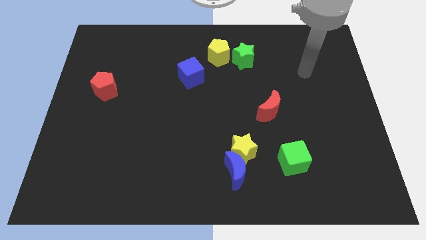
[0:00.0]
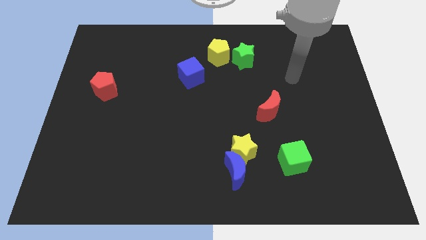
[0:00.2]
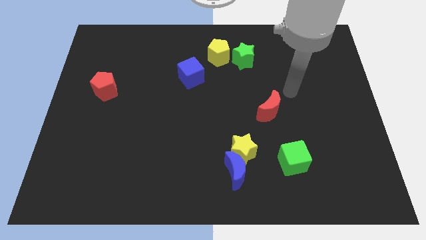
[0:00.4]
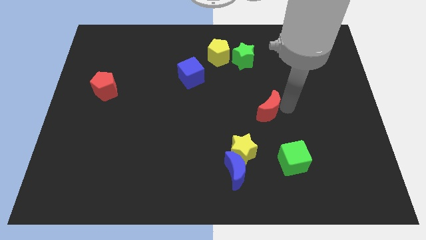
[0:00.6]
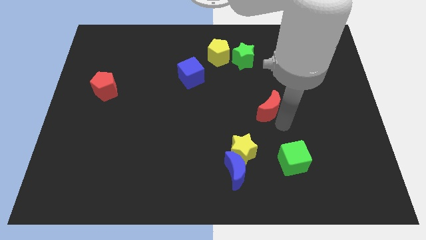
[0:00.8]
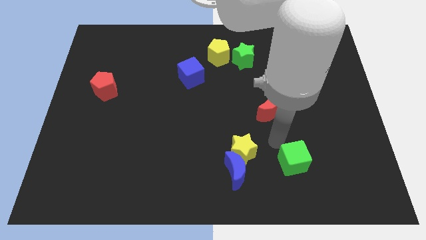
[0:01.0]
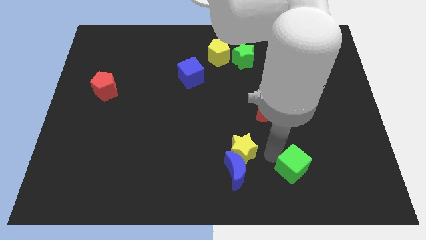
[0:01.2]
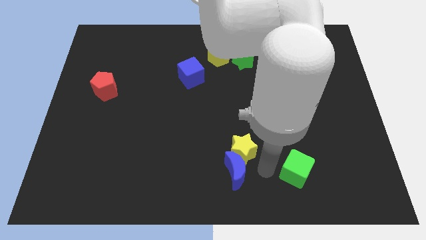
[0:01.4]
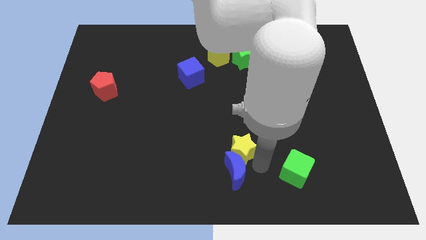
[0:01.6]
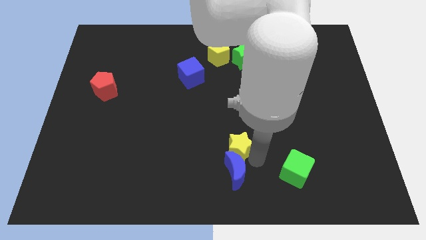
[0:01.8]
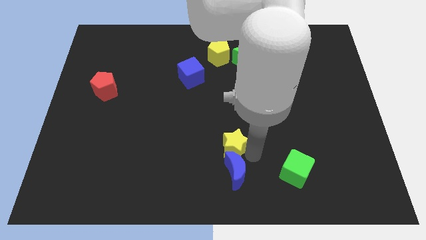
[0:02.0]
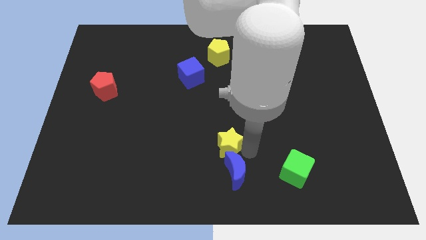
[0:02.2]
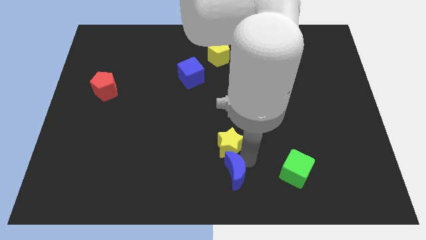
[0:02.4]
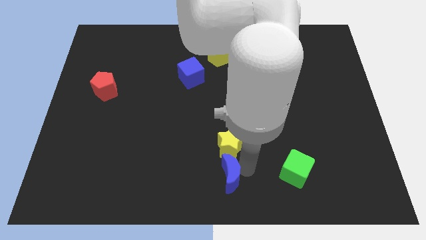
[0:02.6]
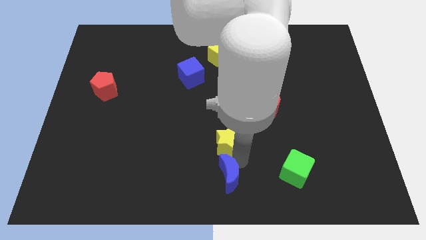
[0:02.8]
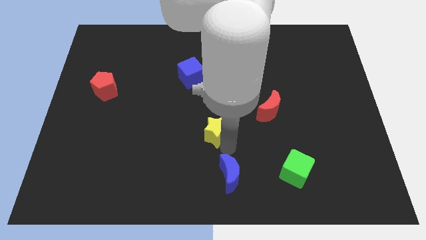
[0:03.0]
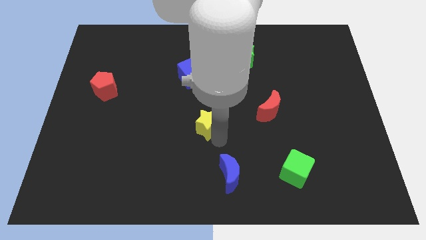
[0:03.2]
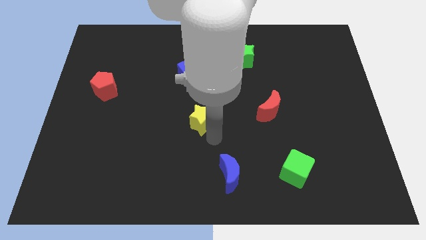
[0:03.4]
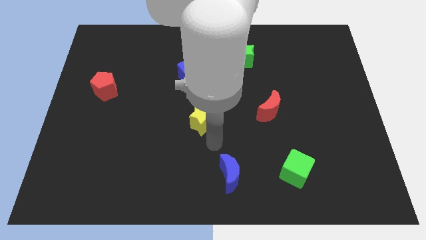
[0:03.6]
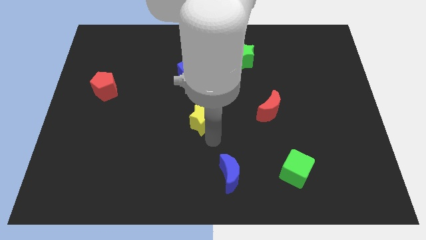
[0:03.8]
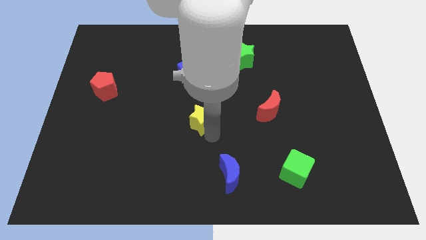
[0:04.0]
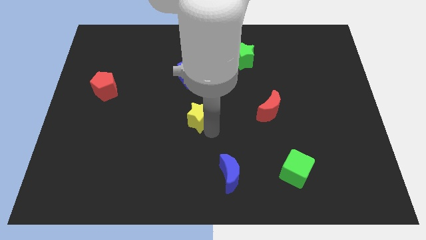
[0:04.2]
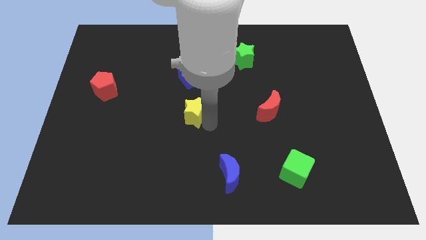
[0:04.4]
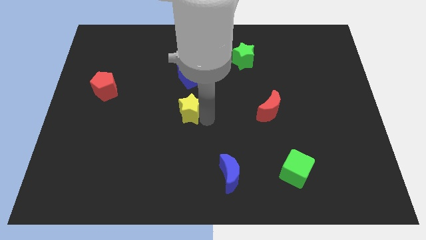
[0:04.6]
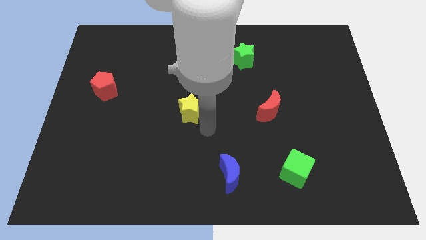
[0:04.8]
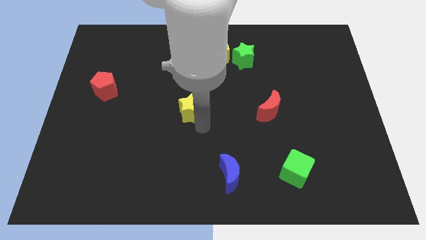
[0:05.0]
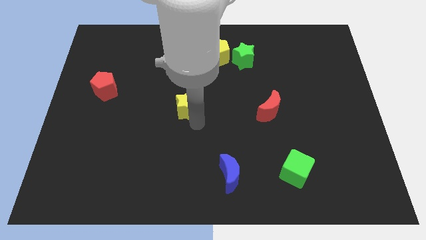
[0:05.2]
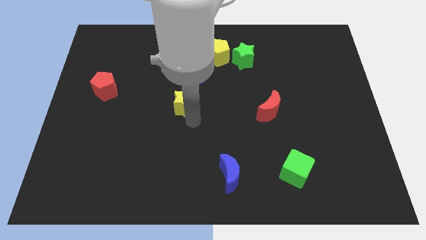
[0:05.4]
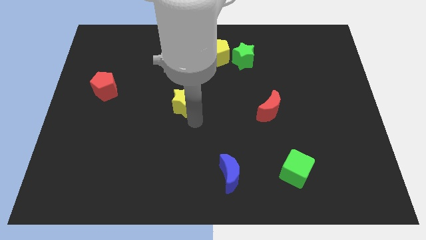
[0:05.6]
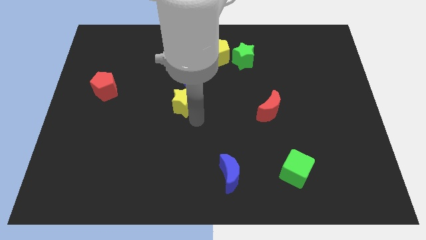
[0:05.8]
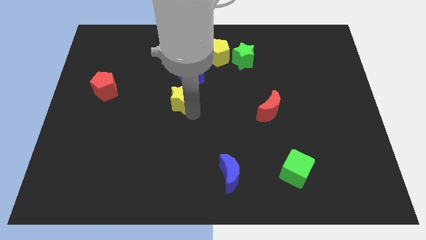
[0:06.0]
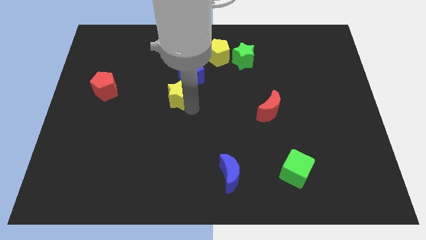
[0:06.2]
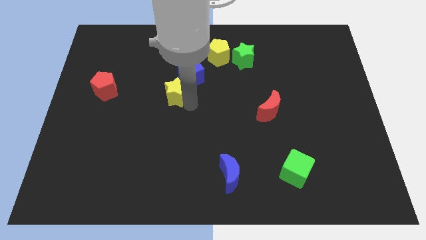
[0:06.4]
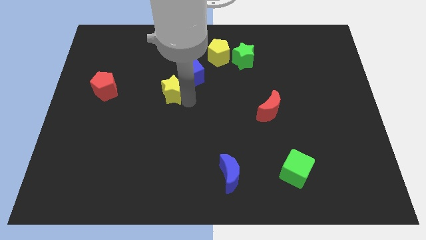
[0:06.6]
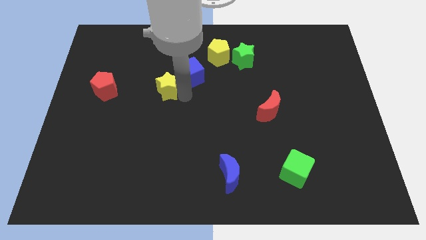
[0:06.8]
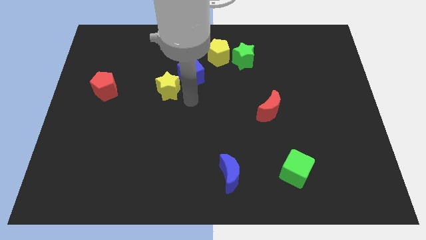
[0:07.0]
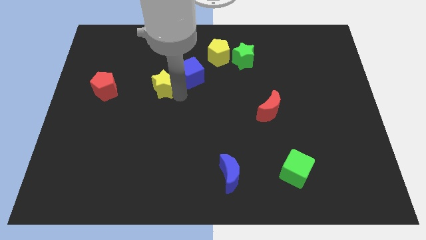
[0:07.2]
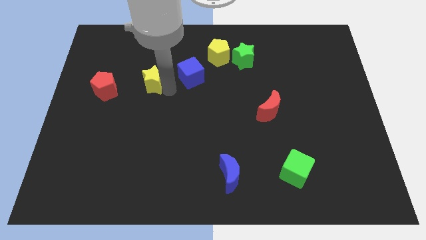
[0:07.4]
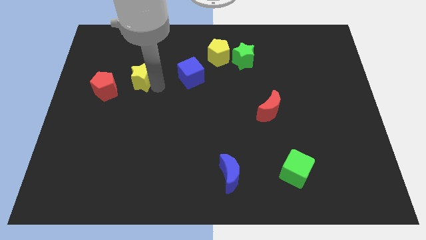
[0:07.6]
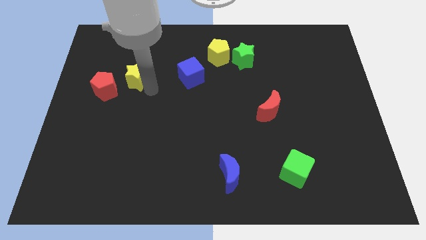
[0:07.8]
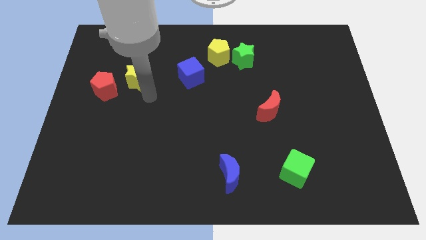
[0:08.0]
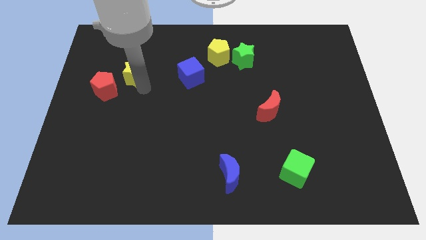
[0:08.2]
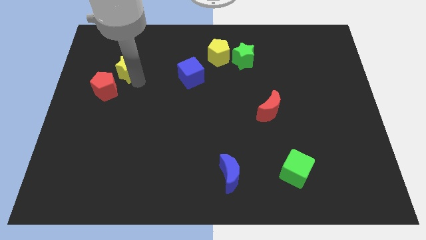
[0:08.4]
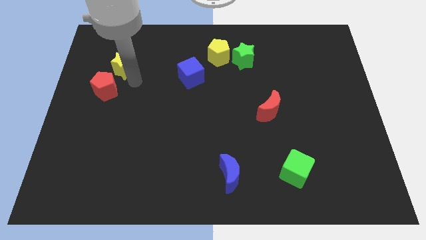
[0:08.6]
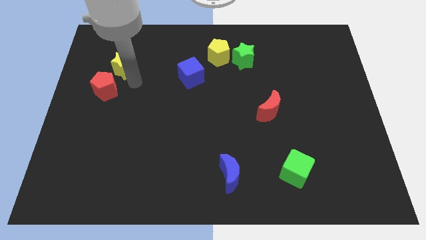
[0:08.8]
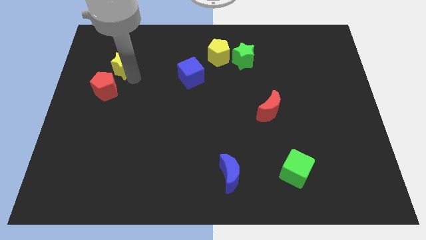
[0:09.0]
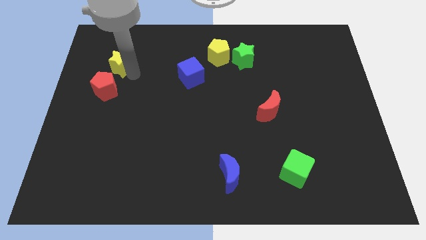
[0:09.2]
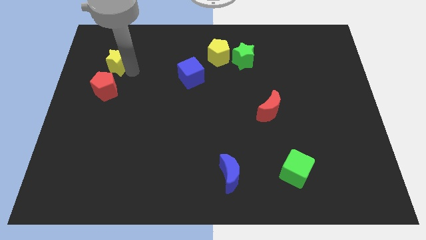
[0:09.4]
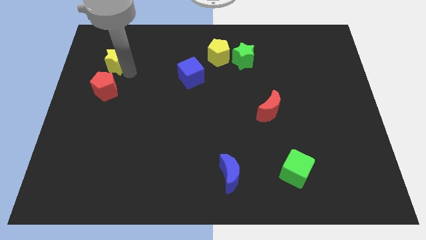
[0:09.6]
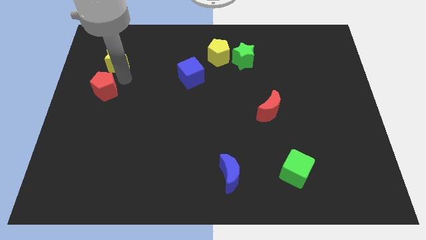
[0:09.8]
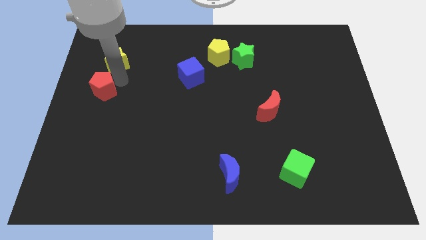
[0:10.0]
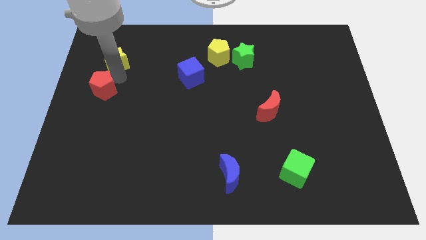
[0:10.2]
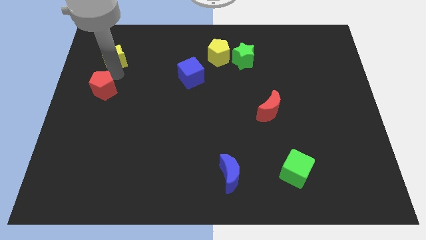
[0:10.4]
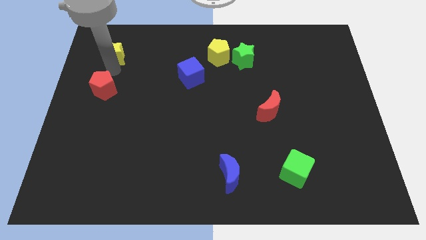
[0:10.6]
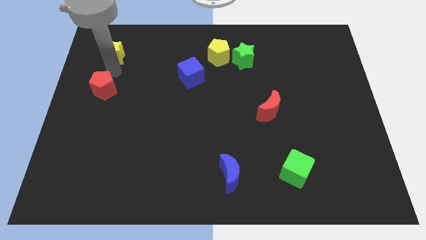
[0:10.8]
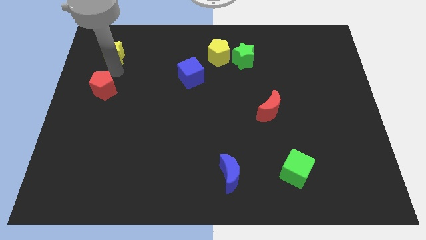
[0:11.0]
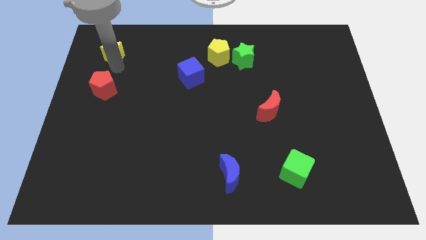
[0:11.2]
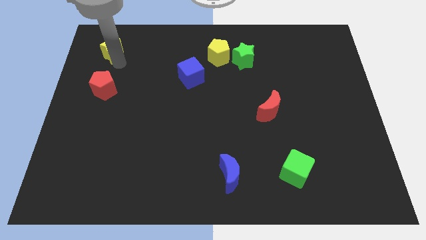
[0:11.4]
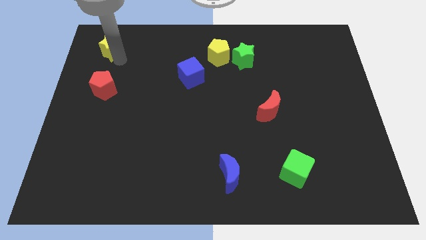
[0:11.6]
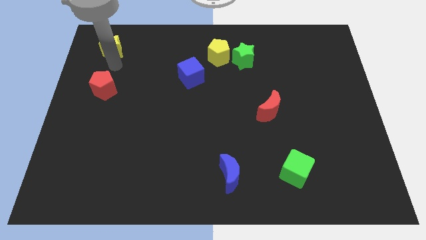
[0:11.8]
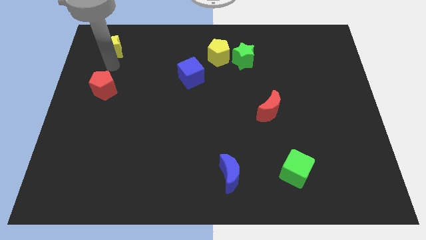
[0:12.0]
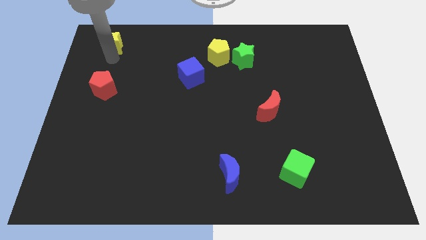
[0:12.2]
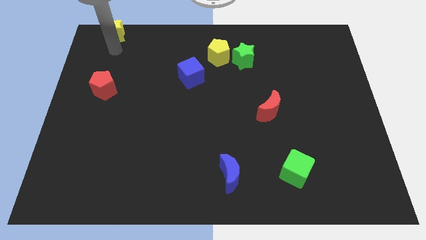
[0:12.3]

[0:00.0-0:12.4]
push the yellow star to the top left corner

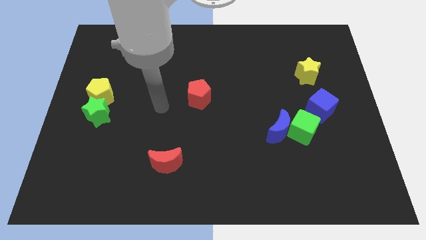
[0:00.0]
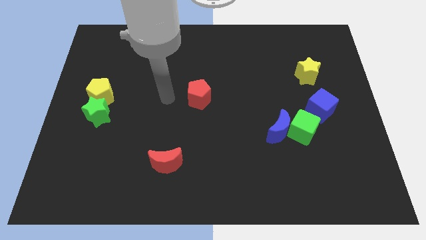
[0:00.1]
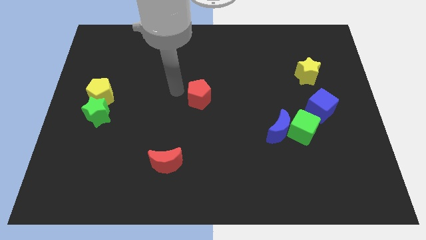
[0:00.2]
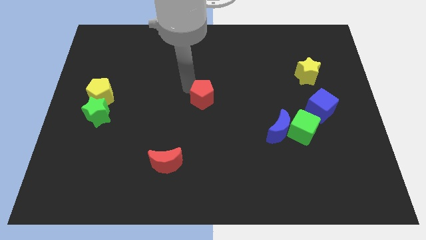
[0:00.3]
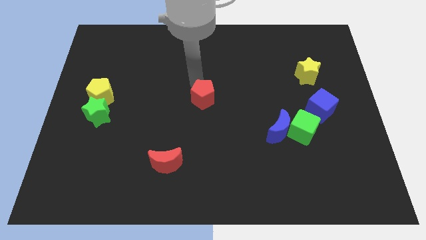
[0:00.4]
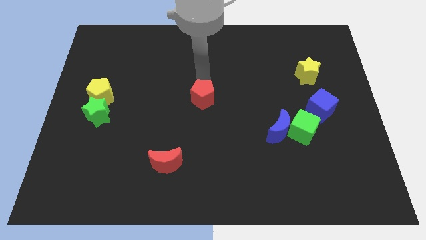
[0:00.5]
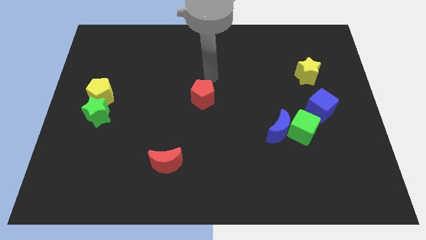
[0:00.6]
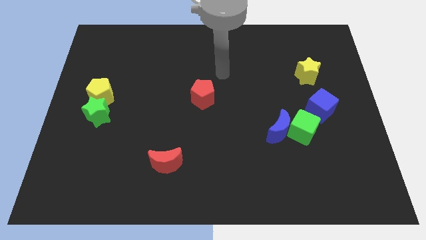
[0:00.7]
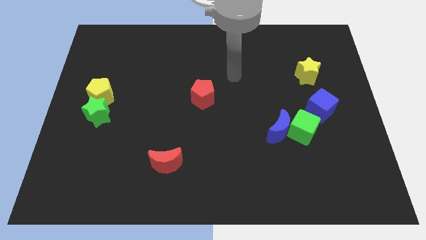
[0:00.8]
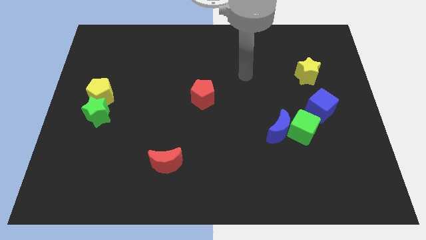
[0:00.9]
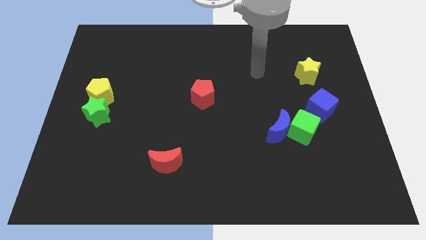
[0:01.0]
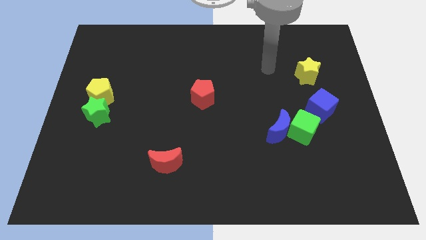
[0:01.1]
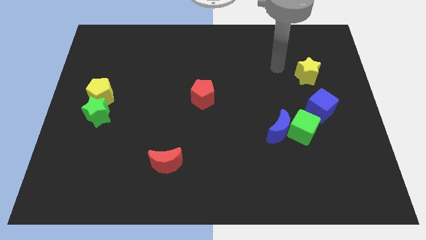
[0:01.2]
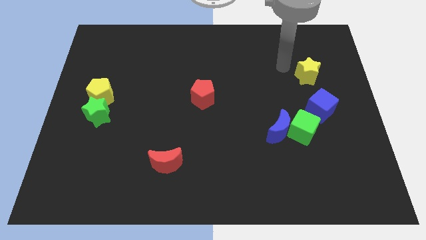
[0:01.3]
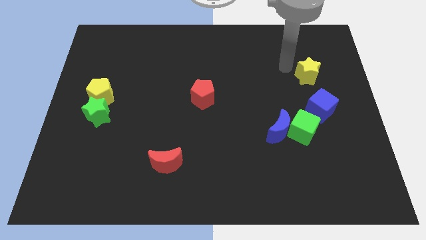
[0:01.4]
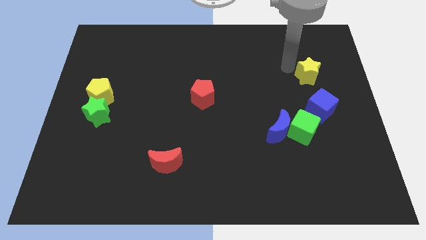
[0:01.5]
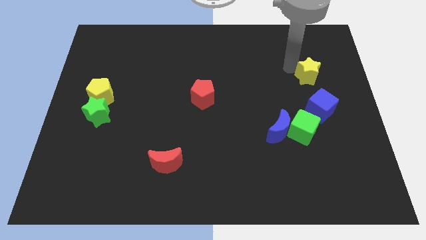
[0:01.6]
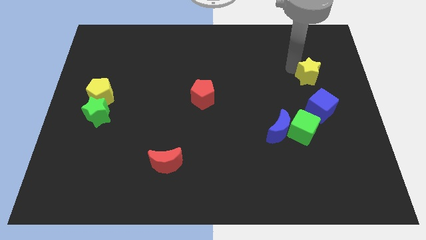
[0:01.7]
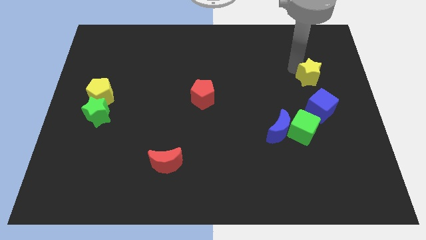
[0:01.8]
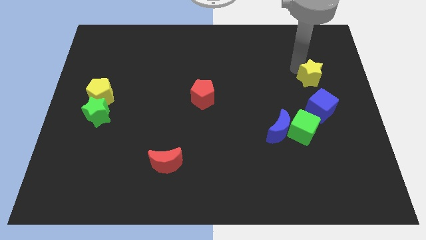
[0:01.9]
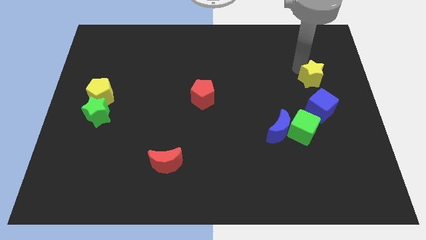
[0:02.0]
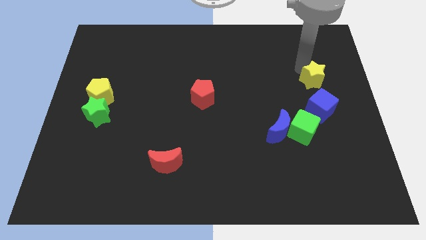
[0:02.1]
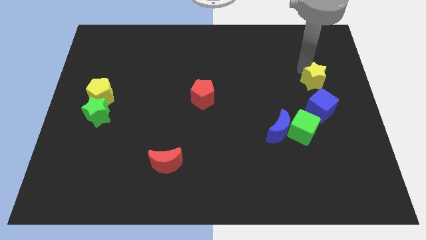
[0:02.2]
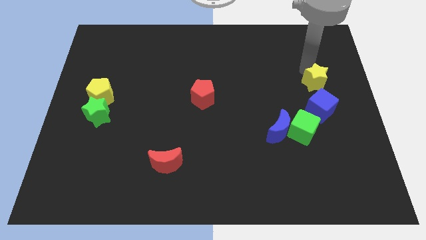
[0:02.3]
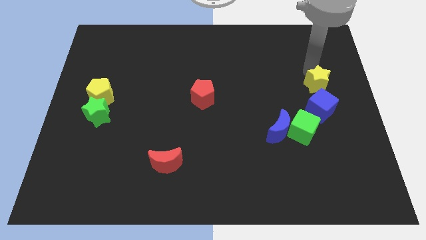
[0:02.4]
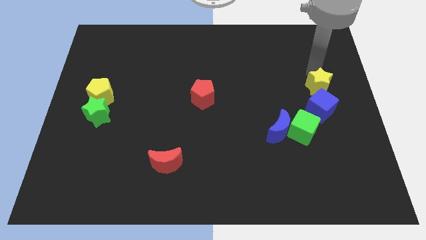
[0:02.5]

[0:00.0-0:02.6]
slide the yellow star to the center right
